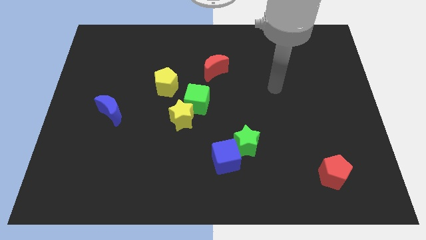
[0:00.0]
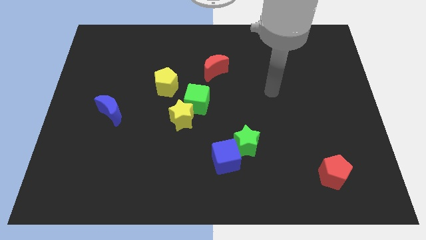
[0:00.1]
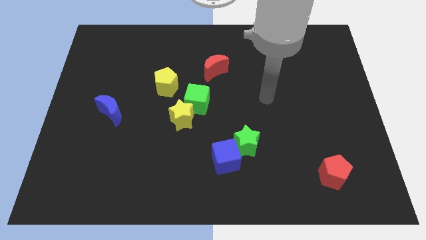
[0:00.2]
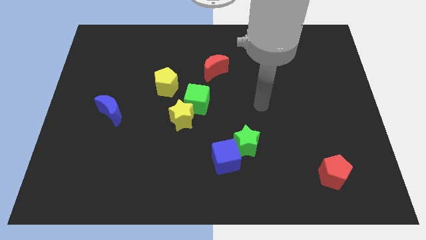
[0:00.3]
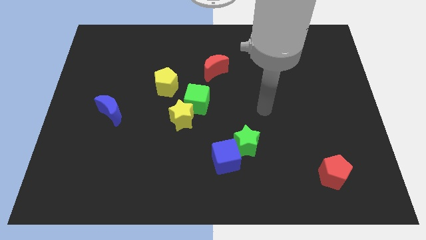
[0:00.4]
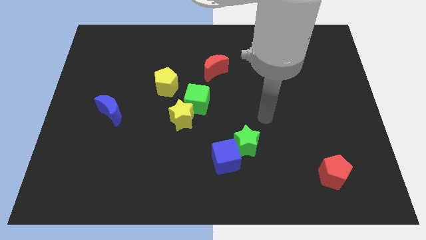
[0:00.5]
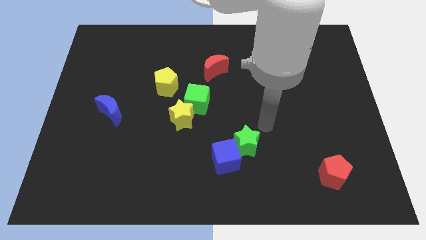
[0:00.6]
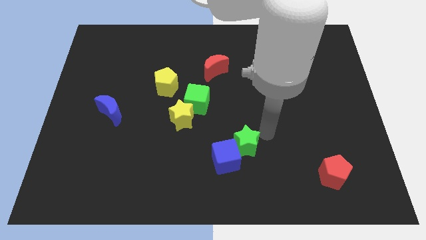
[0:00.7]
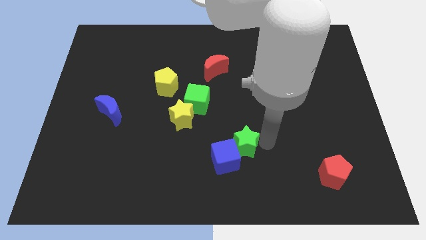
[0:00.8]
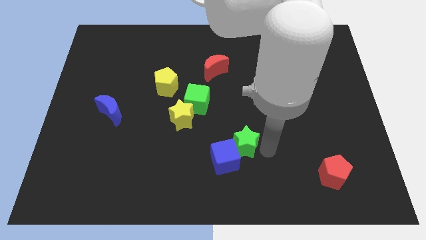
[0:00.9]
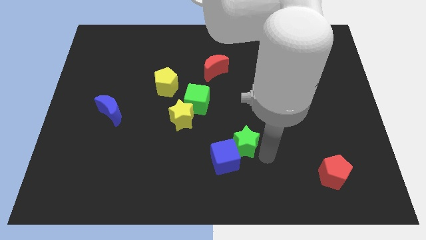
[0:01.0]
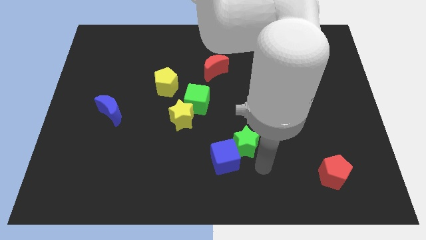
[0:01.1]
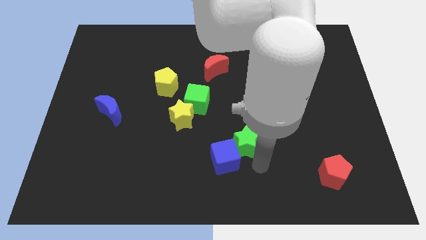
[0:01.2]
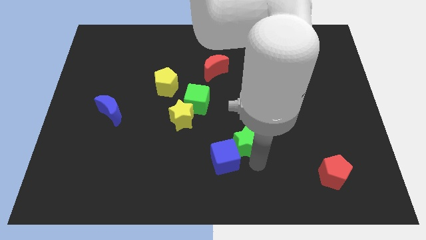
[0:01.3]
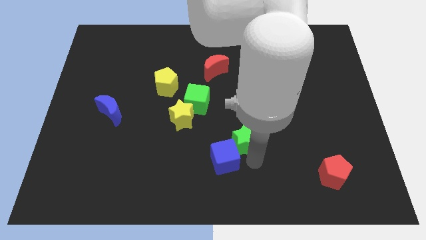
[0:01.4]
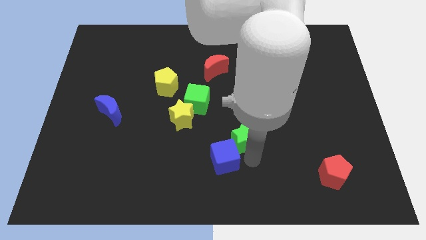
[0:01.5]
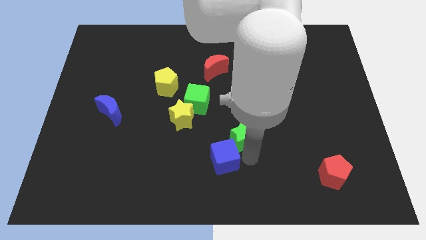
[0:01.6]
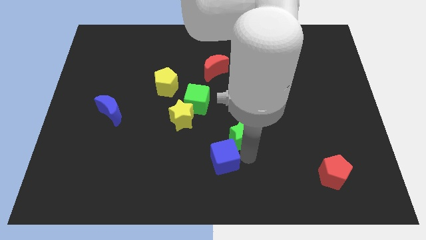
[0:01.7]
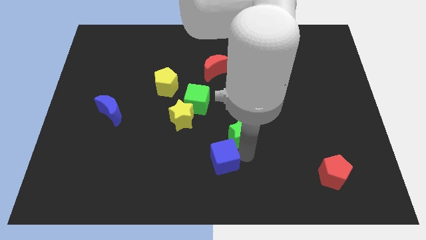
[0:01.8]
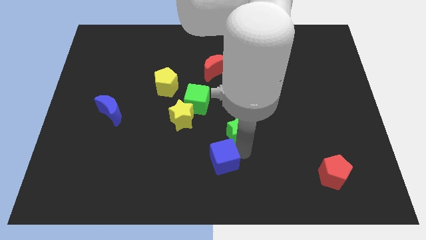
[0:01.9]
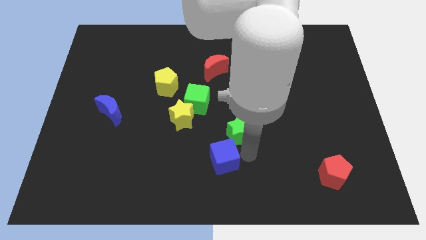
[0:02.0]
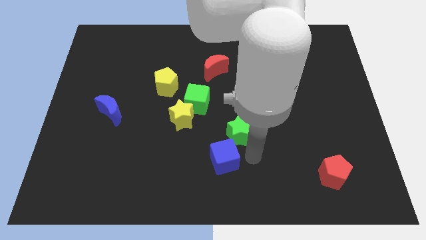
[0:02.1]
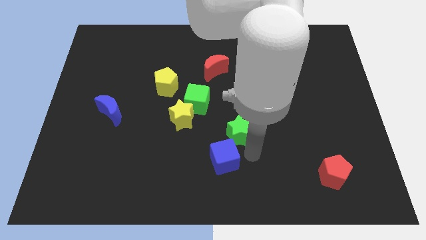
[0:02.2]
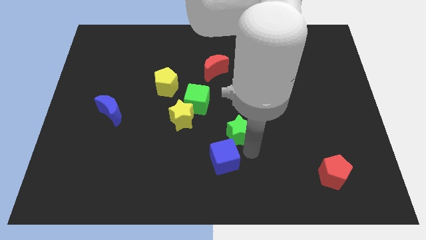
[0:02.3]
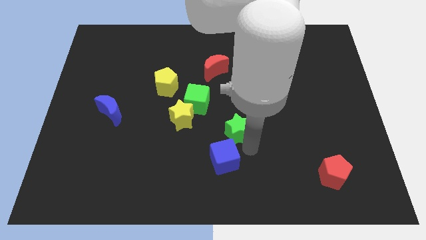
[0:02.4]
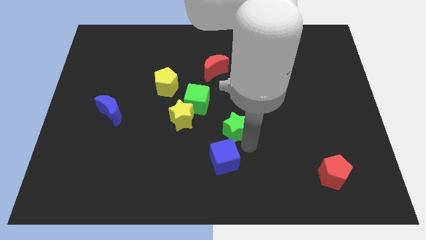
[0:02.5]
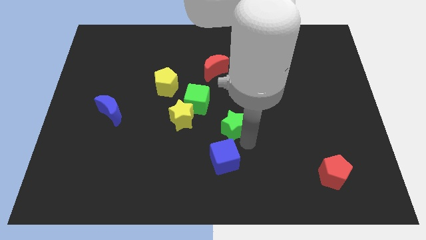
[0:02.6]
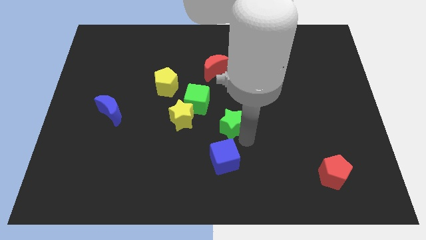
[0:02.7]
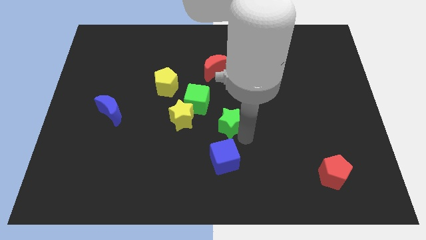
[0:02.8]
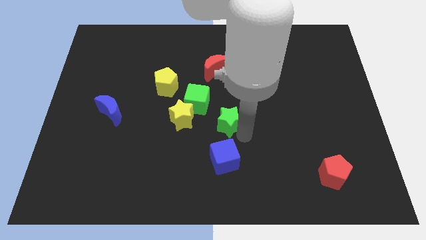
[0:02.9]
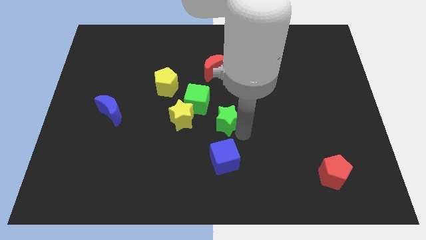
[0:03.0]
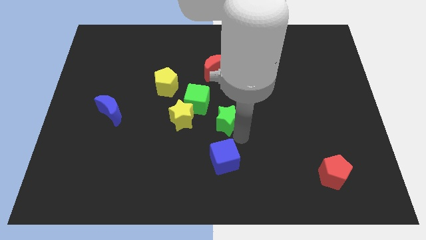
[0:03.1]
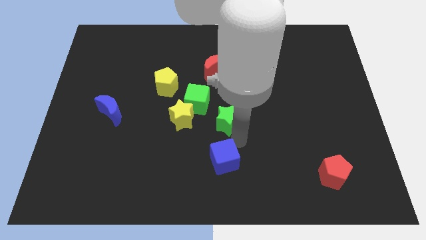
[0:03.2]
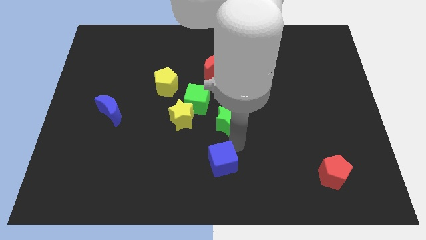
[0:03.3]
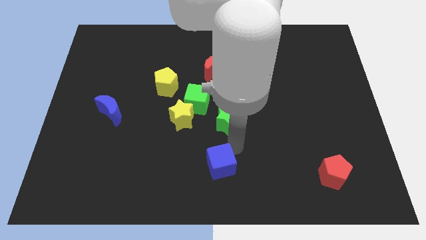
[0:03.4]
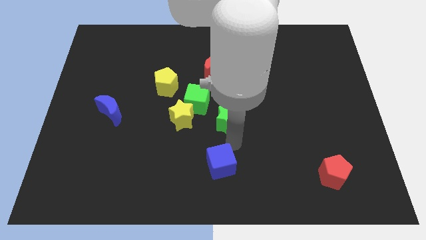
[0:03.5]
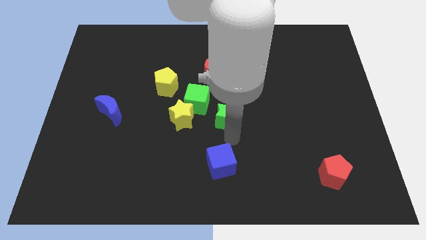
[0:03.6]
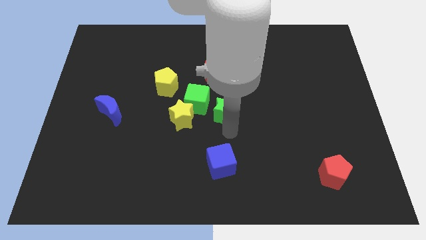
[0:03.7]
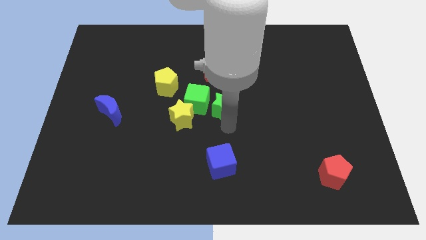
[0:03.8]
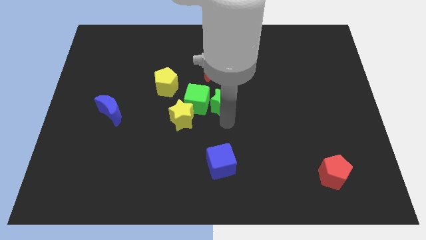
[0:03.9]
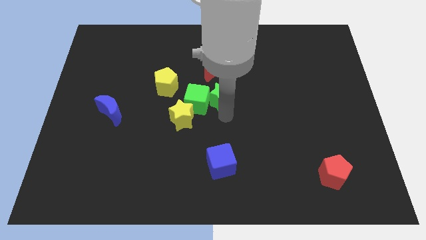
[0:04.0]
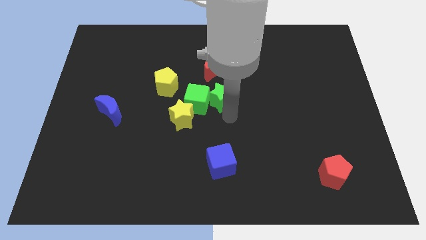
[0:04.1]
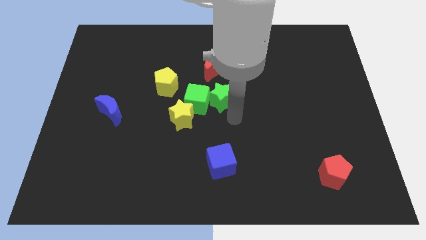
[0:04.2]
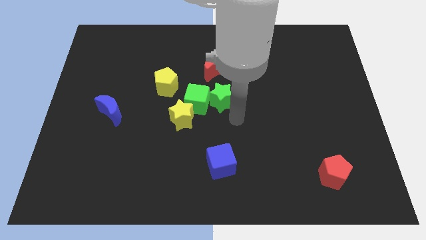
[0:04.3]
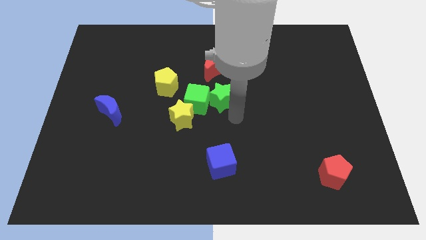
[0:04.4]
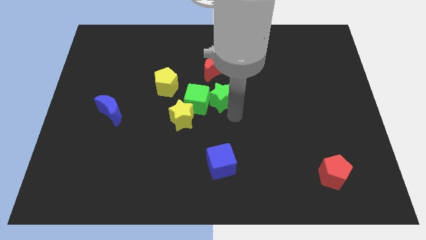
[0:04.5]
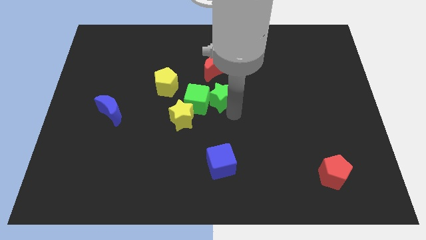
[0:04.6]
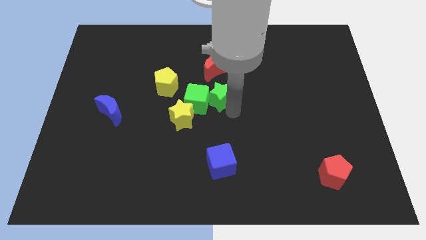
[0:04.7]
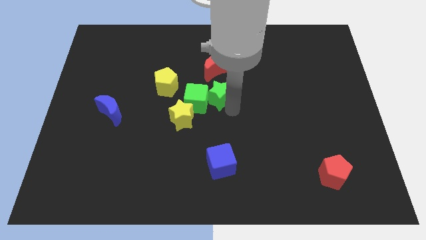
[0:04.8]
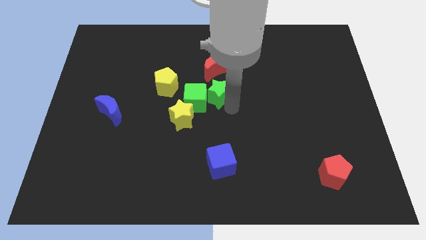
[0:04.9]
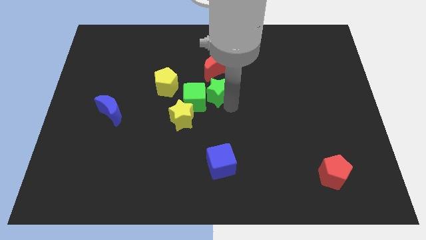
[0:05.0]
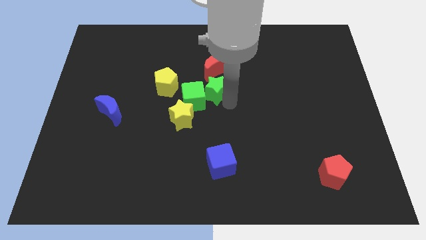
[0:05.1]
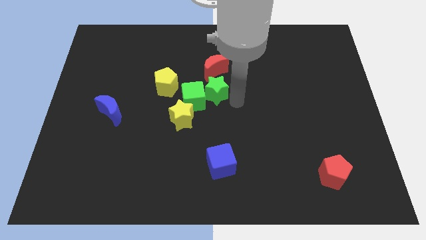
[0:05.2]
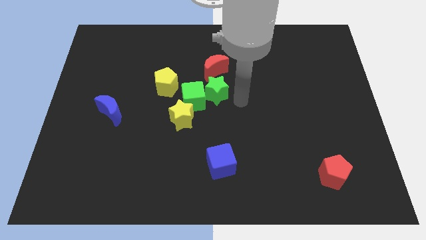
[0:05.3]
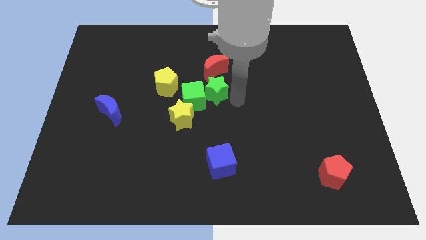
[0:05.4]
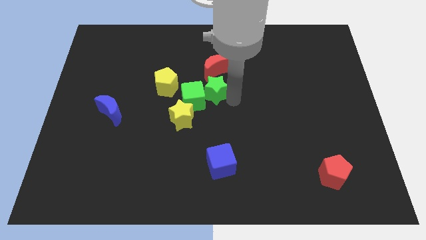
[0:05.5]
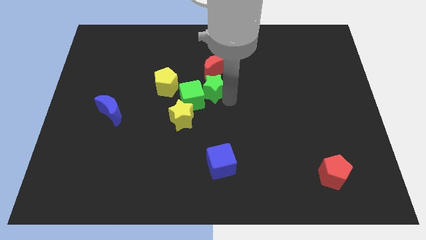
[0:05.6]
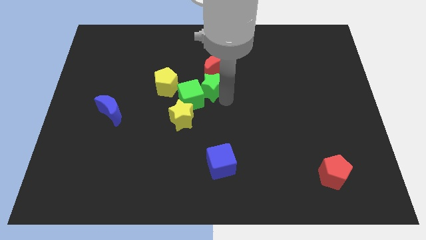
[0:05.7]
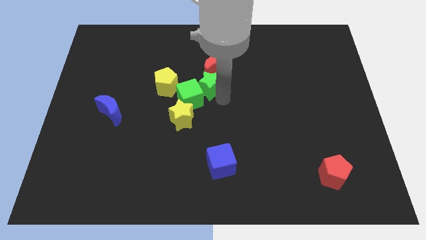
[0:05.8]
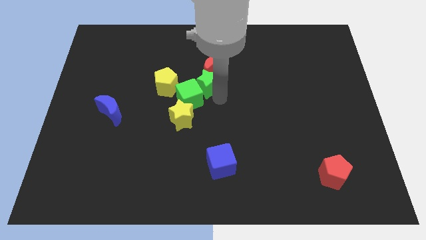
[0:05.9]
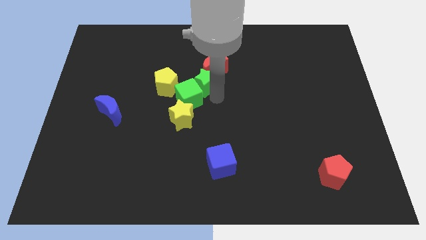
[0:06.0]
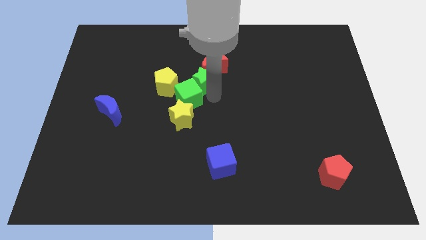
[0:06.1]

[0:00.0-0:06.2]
push the green star to the top of the yellow star
